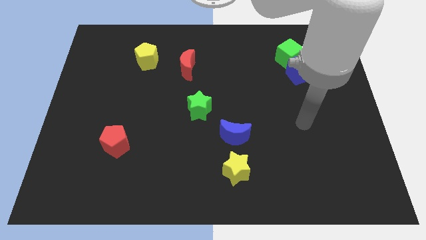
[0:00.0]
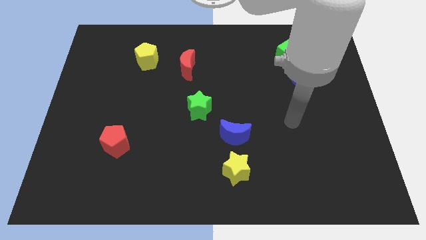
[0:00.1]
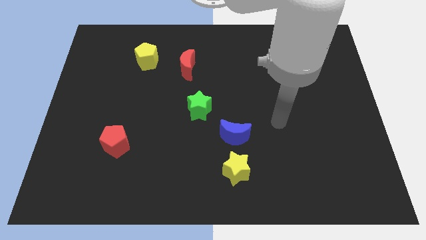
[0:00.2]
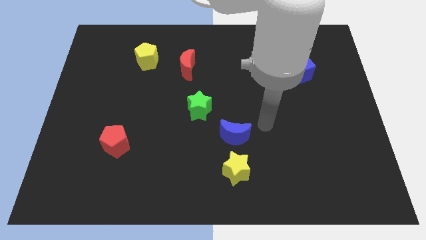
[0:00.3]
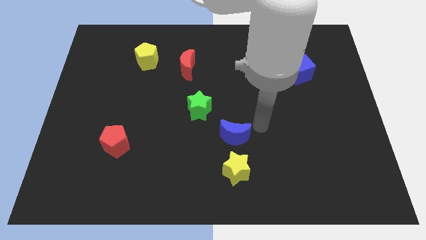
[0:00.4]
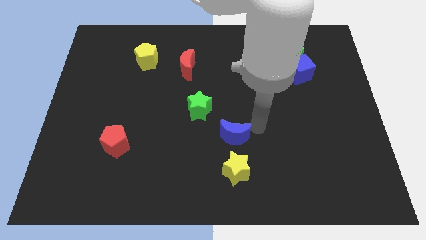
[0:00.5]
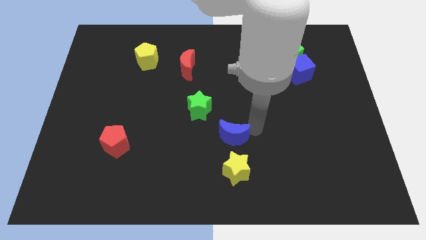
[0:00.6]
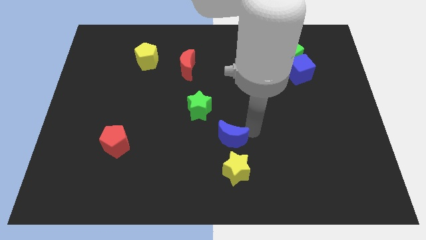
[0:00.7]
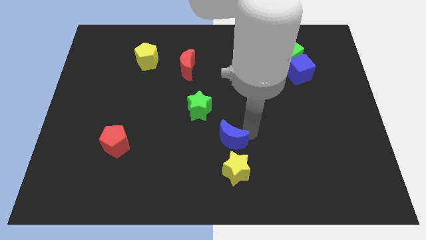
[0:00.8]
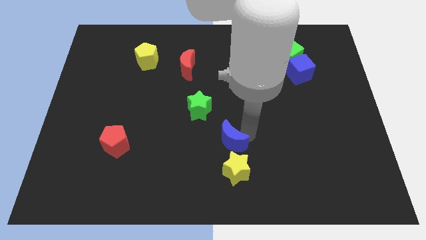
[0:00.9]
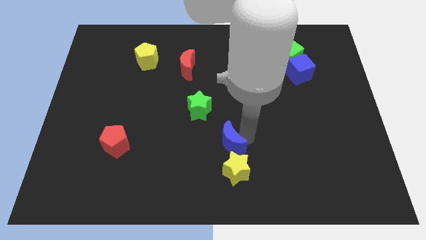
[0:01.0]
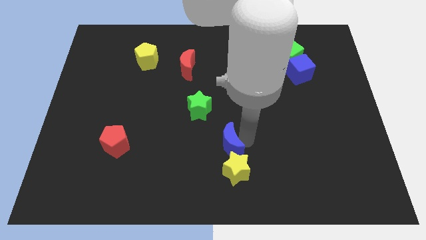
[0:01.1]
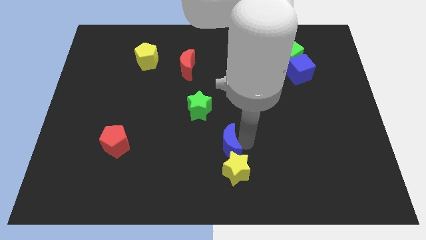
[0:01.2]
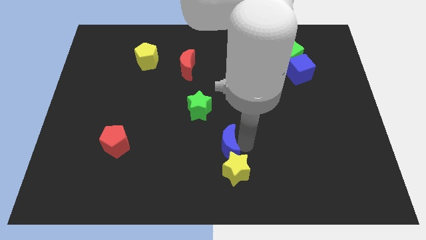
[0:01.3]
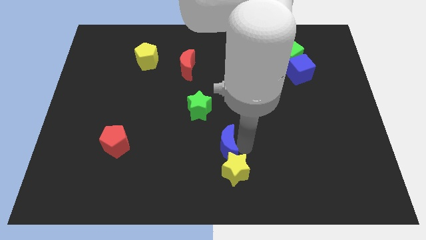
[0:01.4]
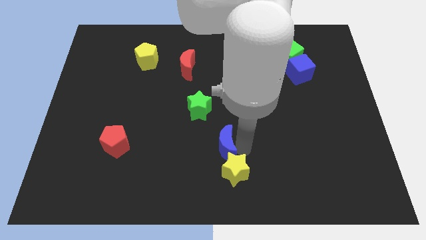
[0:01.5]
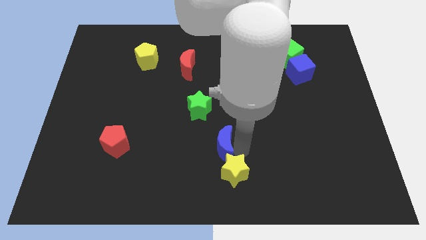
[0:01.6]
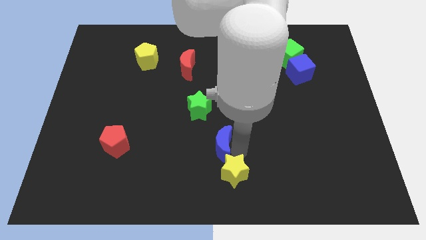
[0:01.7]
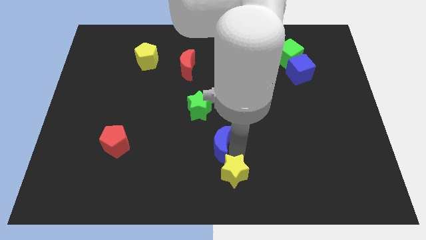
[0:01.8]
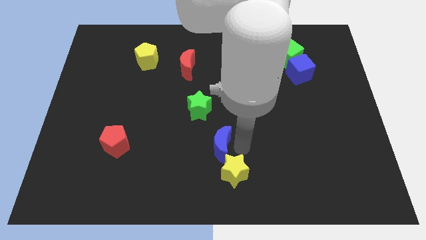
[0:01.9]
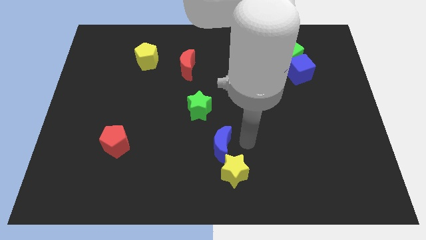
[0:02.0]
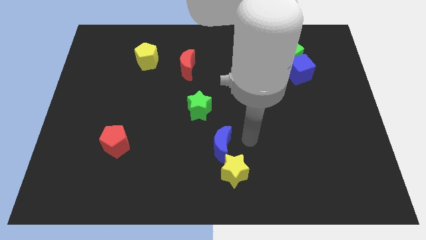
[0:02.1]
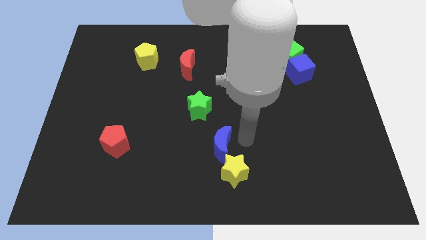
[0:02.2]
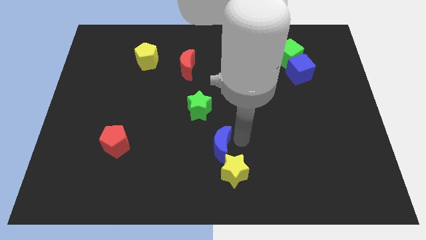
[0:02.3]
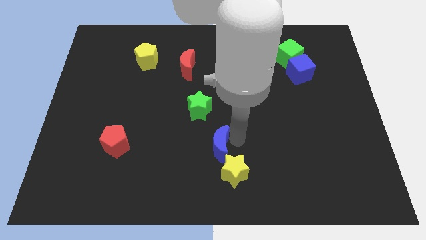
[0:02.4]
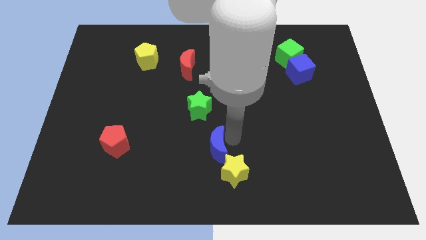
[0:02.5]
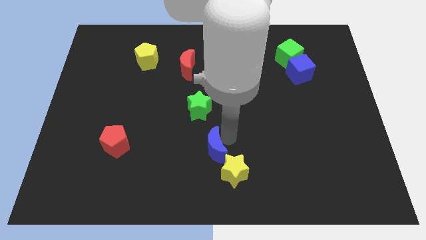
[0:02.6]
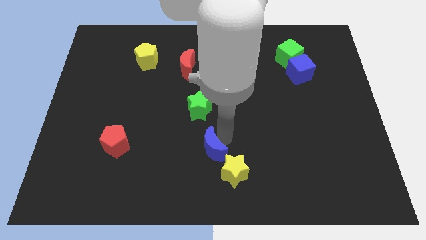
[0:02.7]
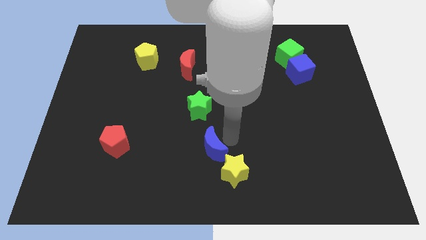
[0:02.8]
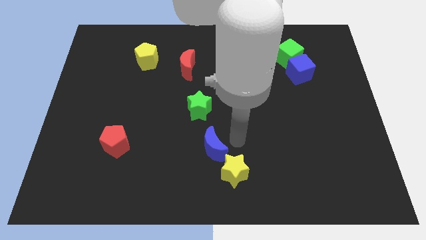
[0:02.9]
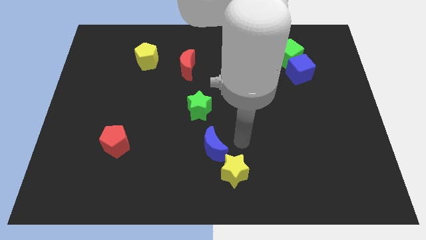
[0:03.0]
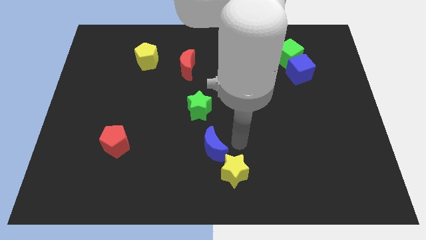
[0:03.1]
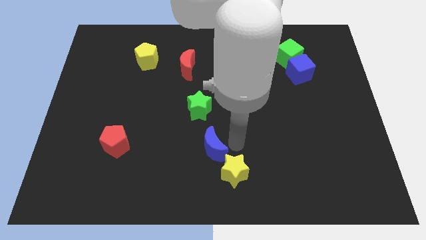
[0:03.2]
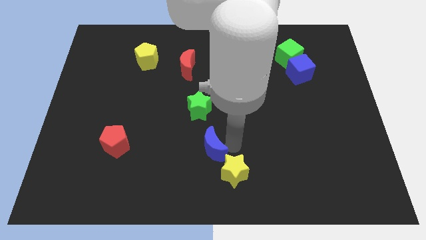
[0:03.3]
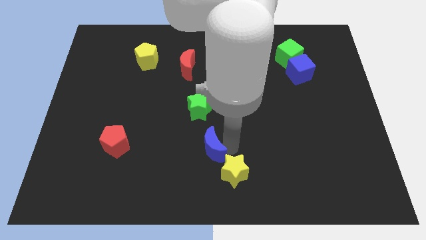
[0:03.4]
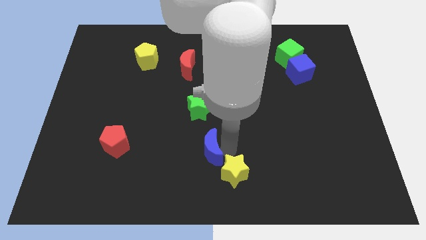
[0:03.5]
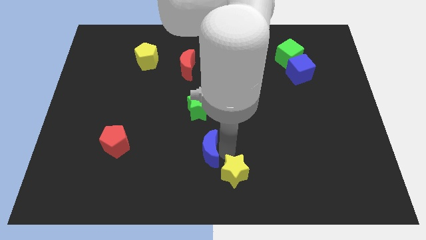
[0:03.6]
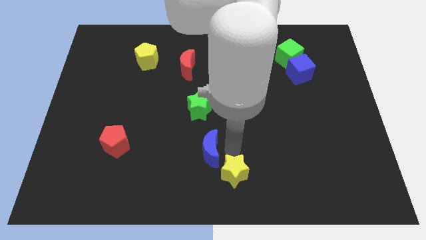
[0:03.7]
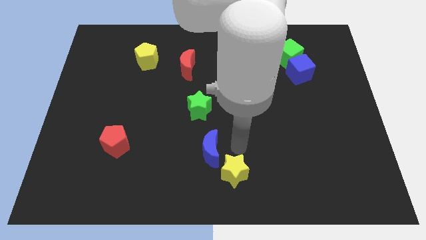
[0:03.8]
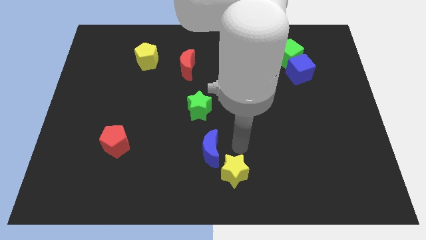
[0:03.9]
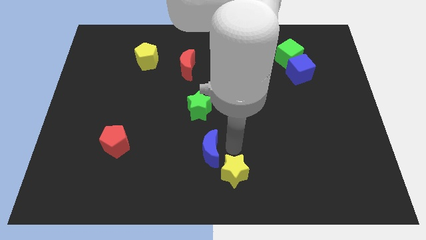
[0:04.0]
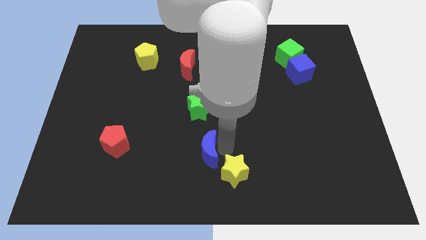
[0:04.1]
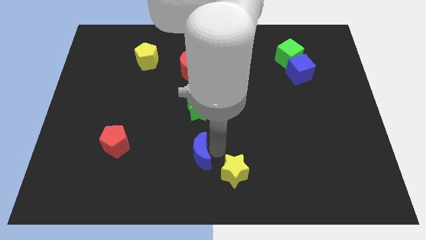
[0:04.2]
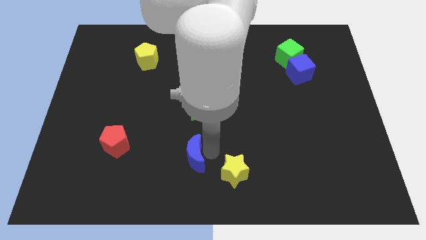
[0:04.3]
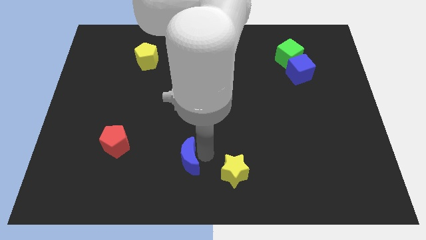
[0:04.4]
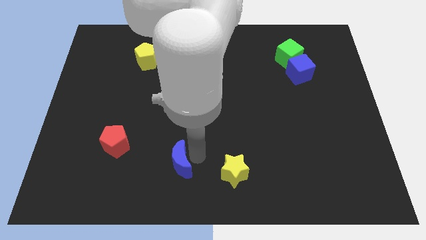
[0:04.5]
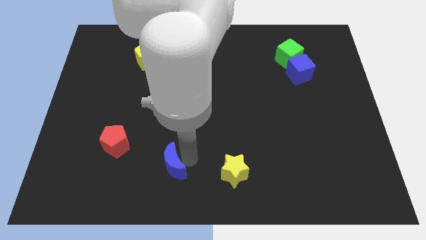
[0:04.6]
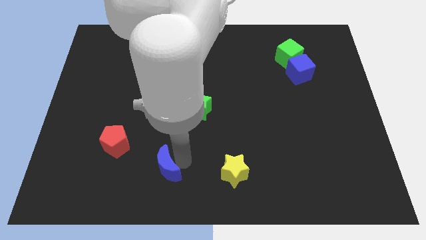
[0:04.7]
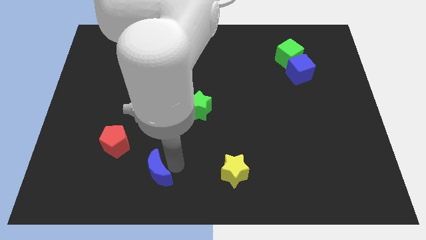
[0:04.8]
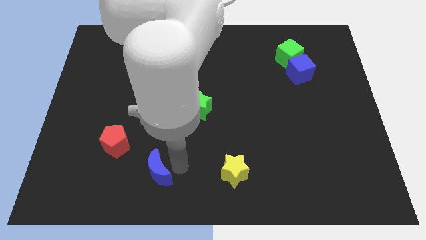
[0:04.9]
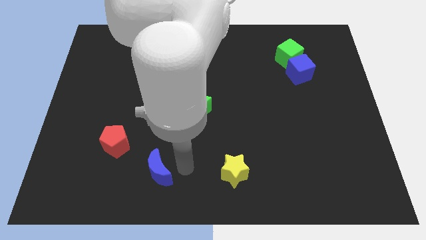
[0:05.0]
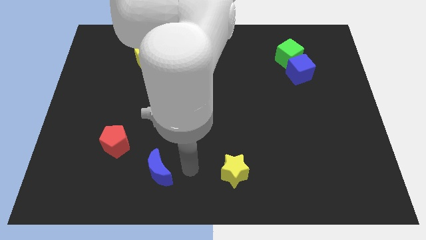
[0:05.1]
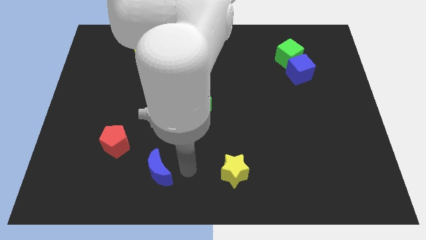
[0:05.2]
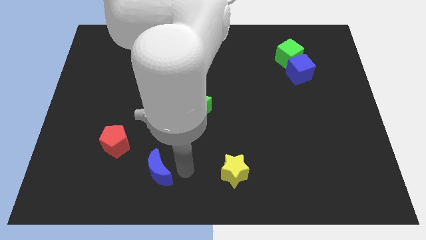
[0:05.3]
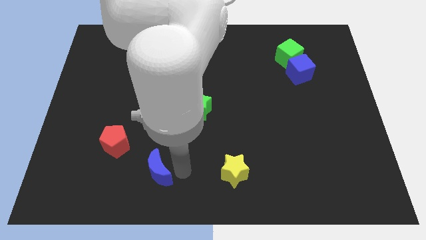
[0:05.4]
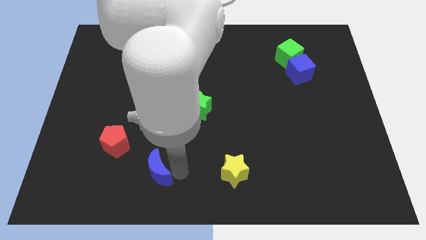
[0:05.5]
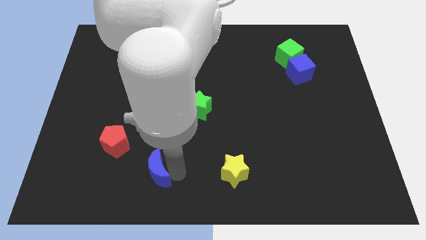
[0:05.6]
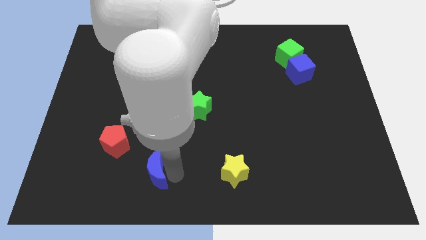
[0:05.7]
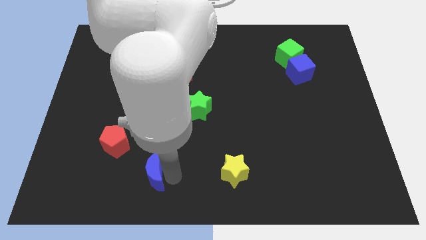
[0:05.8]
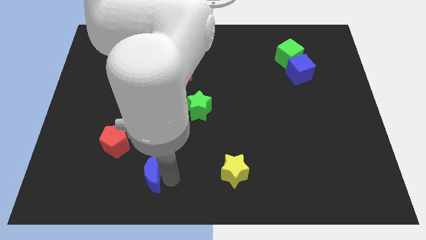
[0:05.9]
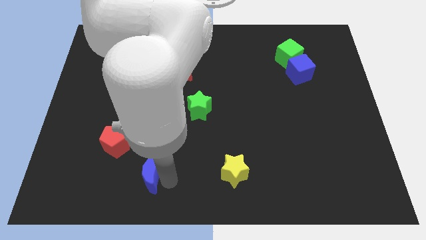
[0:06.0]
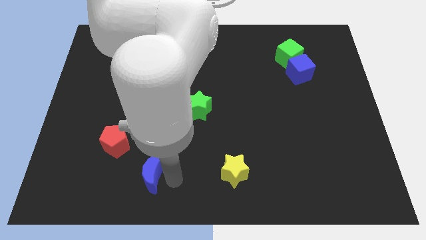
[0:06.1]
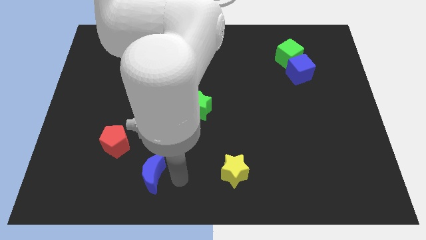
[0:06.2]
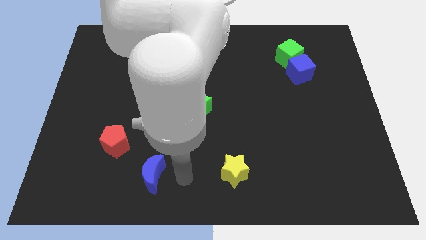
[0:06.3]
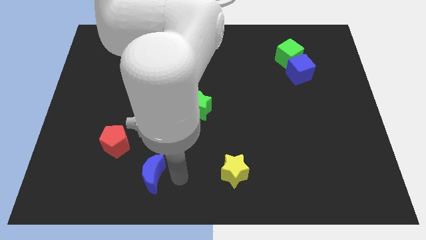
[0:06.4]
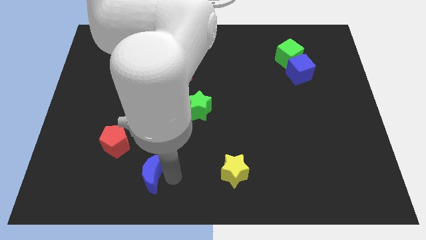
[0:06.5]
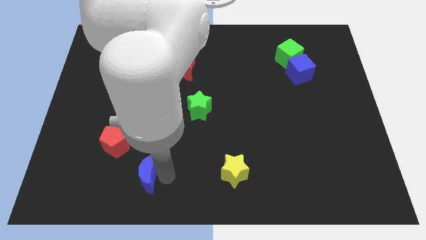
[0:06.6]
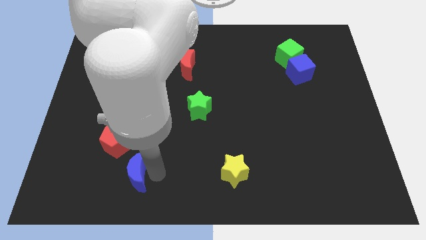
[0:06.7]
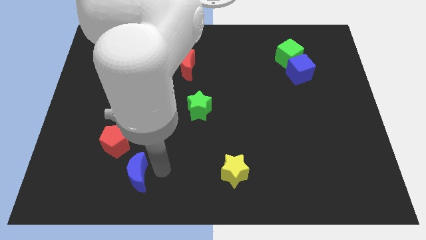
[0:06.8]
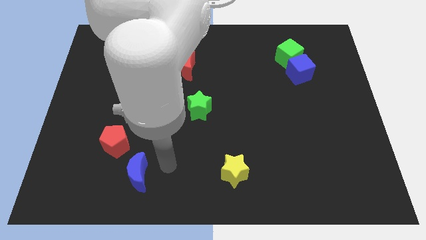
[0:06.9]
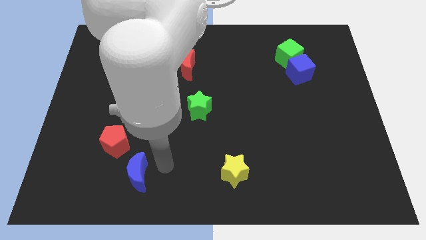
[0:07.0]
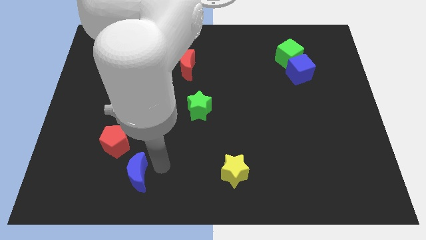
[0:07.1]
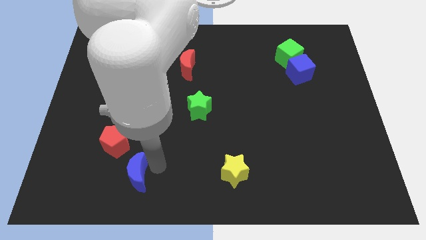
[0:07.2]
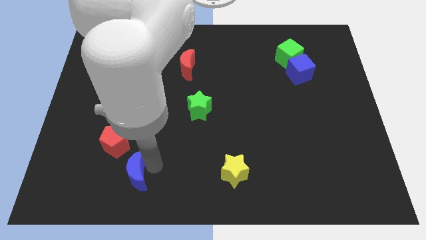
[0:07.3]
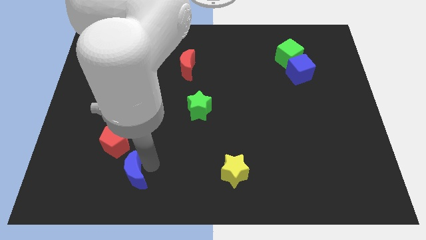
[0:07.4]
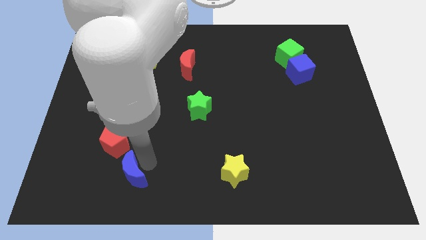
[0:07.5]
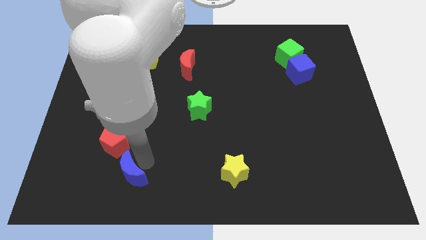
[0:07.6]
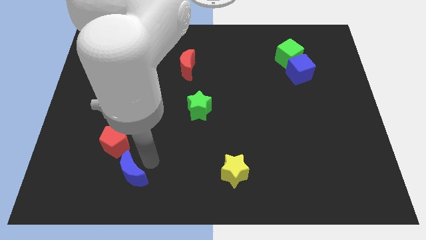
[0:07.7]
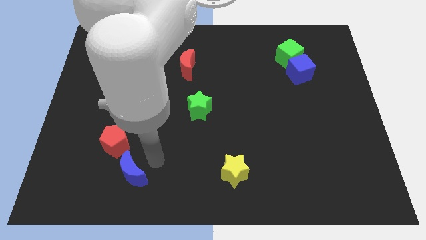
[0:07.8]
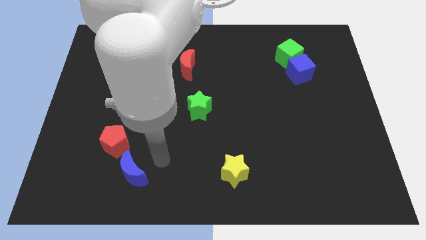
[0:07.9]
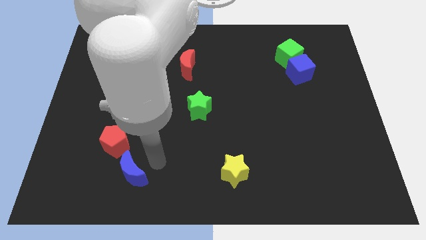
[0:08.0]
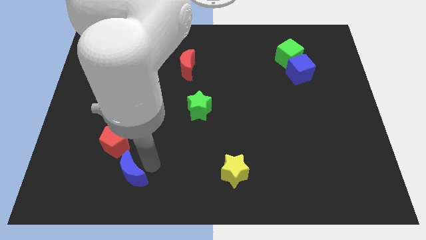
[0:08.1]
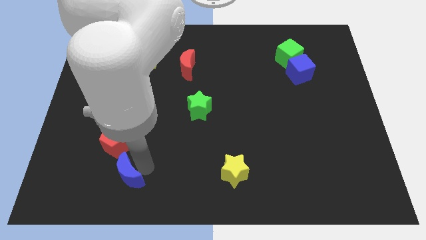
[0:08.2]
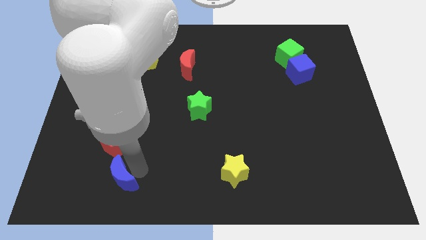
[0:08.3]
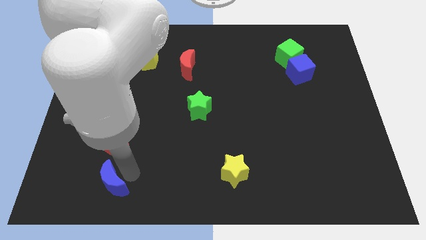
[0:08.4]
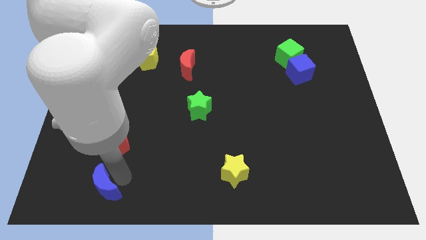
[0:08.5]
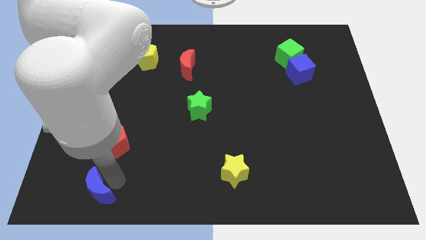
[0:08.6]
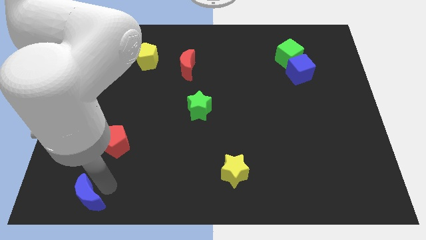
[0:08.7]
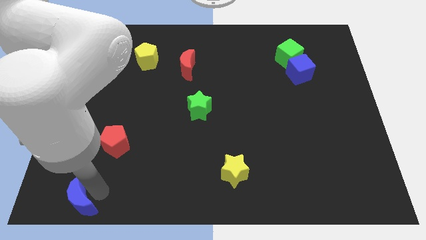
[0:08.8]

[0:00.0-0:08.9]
slide the blue moon to the bottom left of the board
